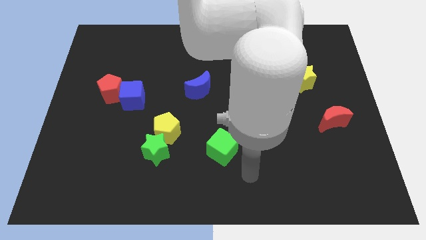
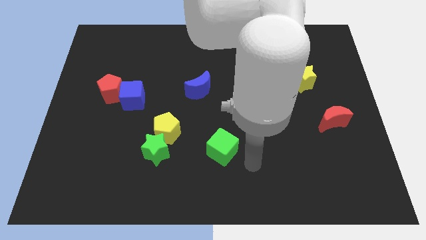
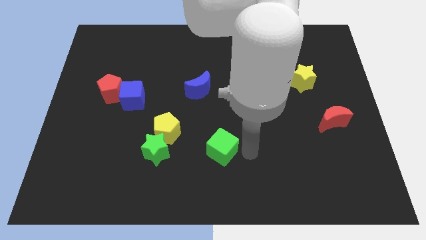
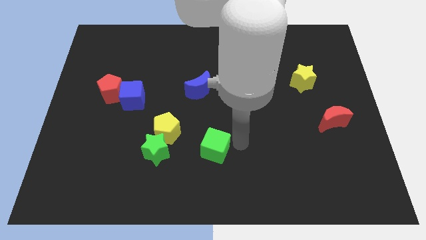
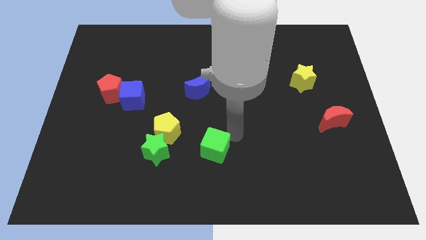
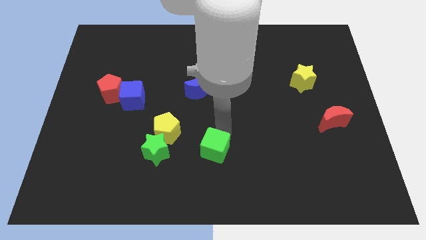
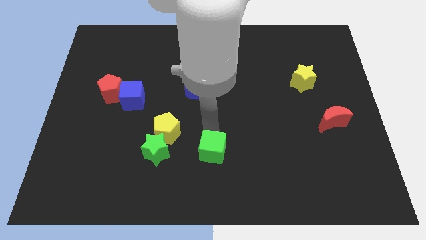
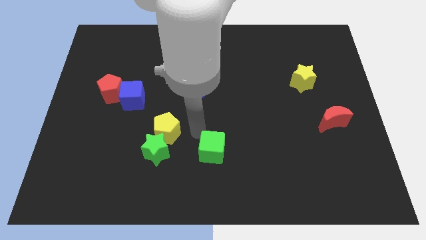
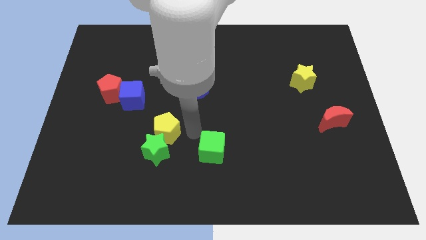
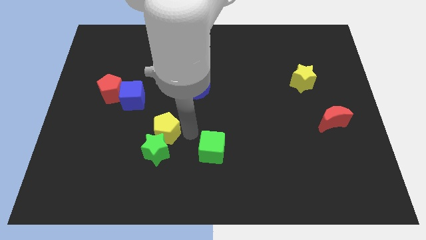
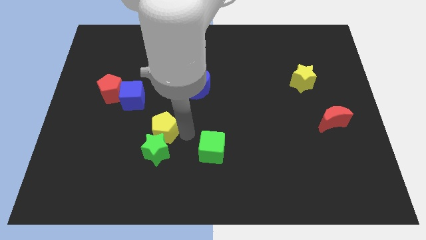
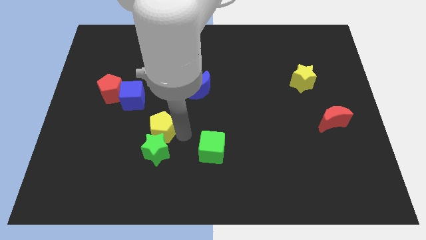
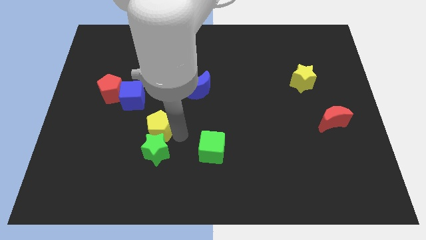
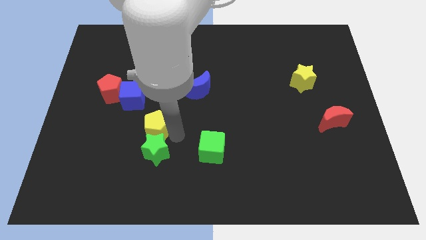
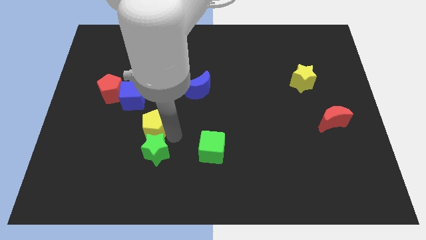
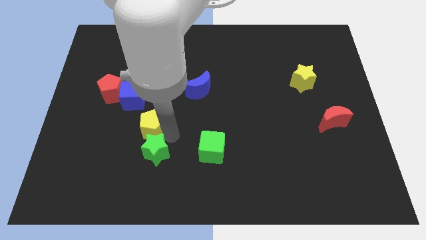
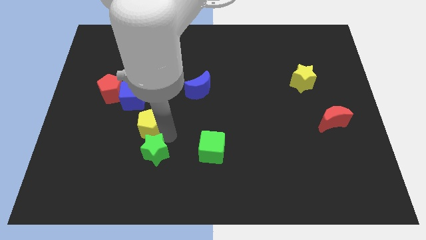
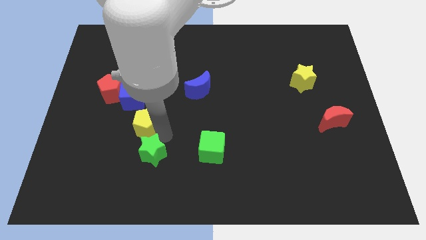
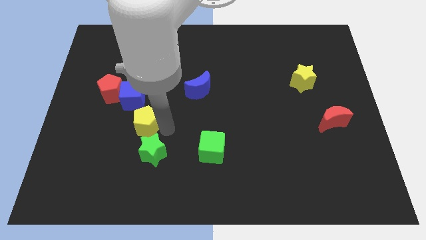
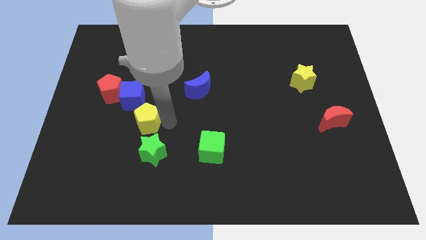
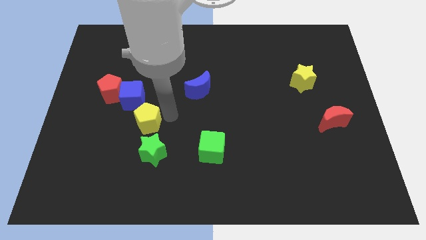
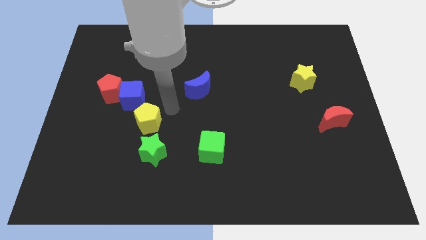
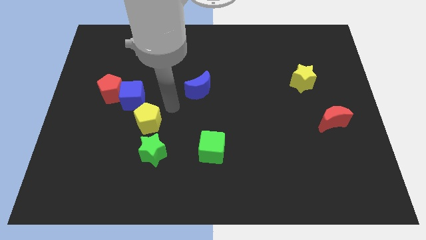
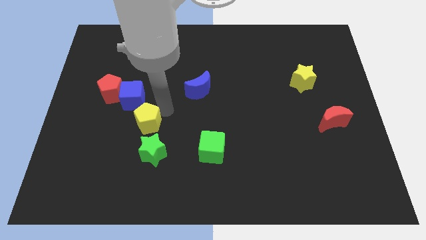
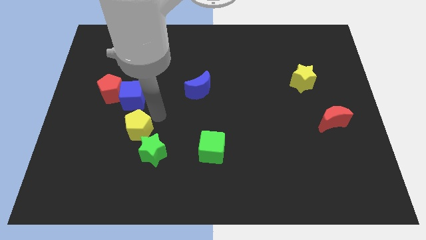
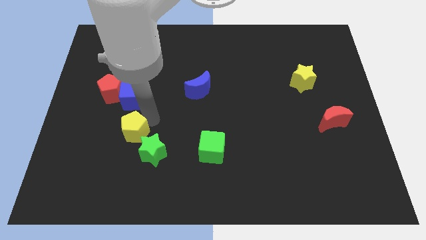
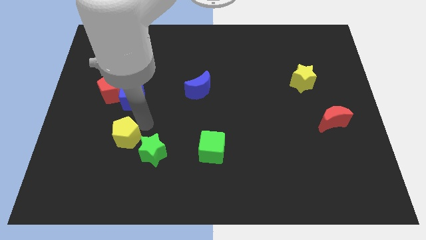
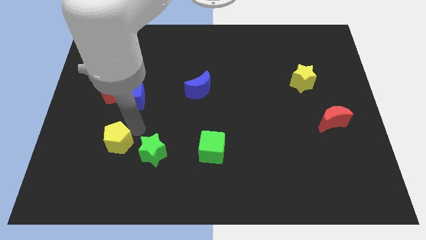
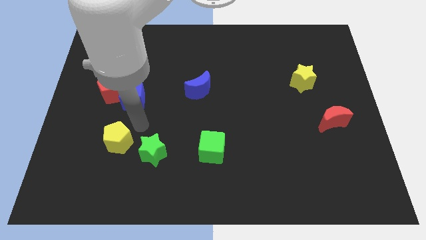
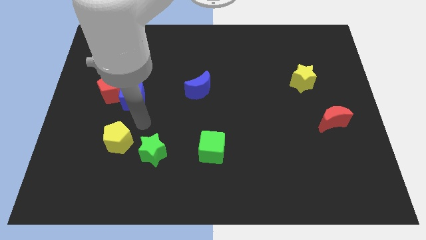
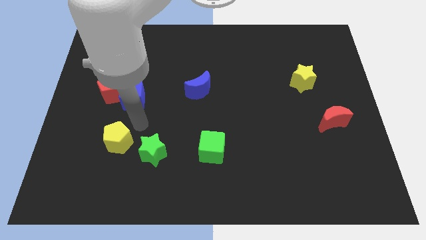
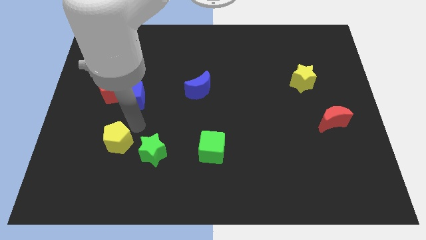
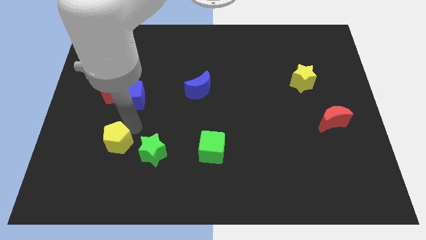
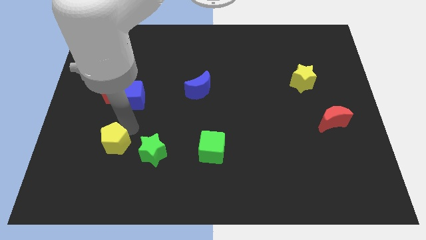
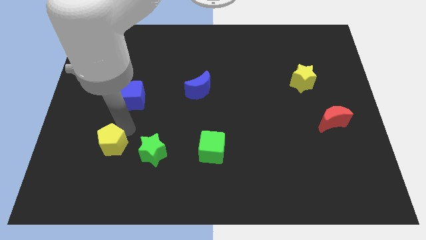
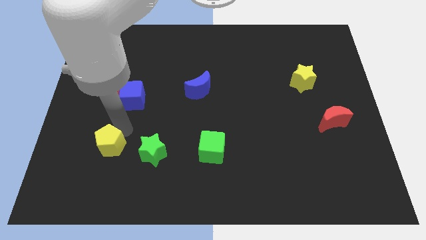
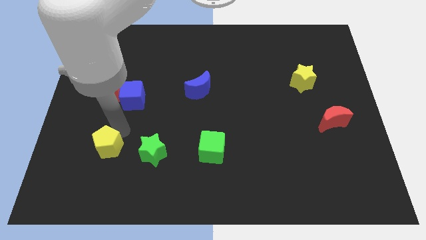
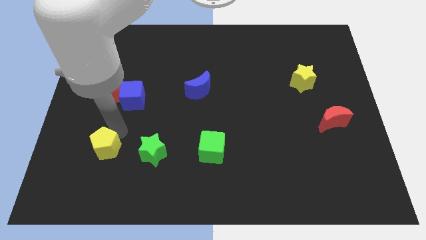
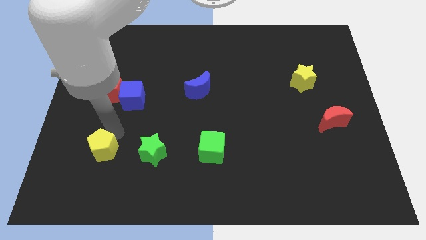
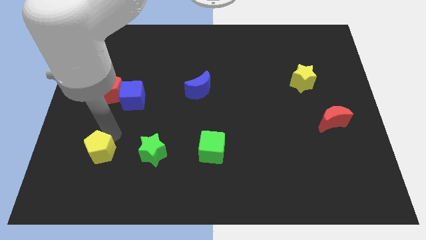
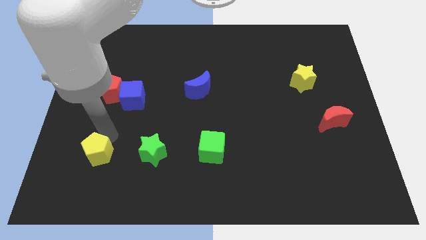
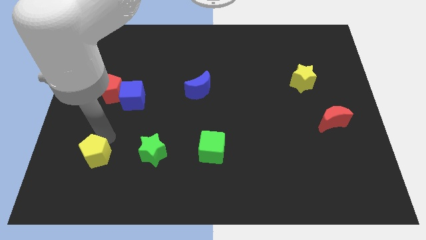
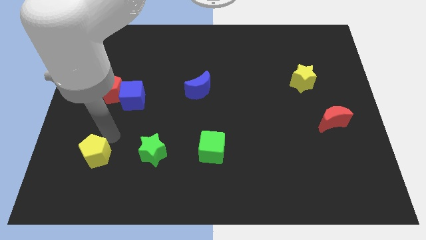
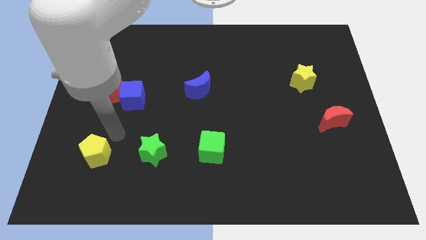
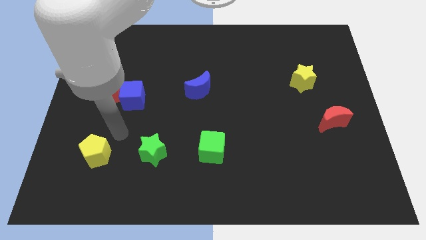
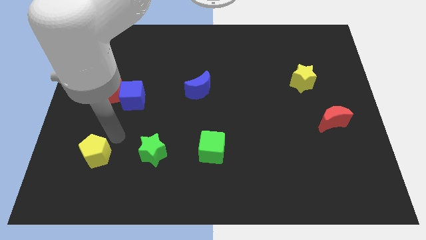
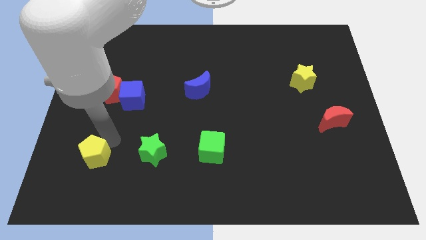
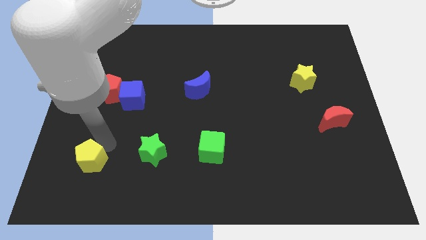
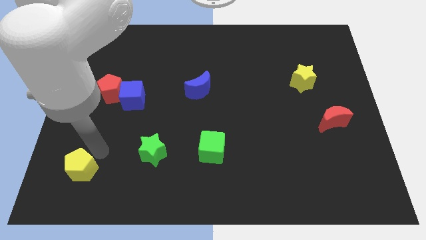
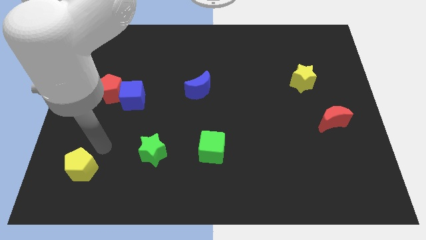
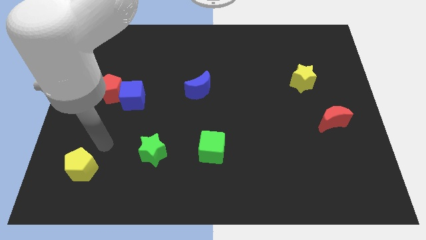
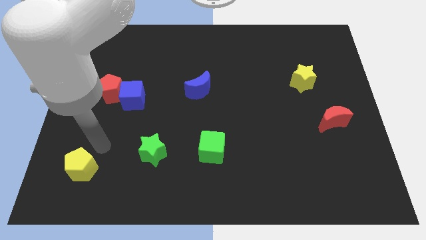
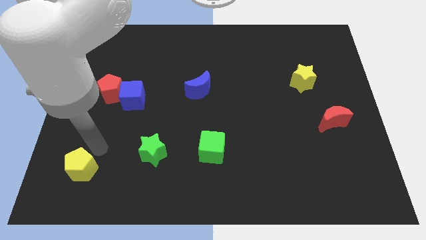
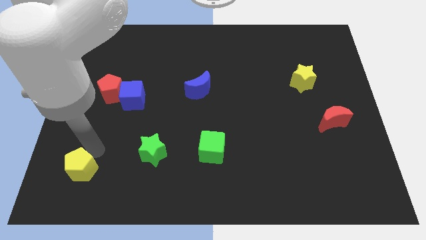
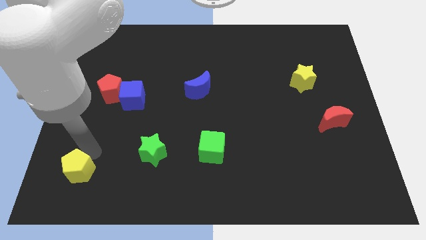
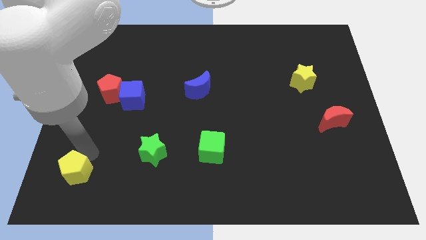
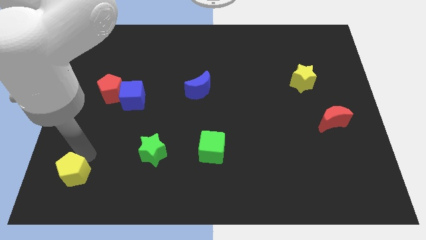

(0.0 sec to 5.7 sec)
put the yellow pentagon to the lower left corner

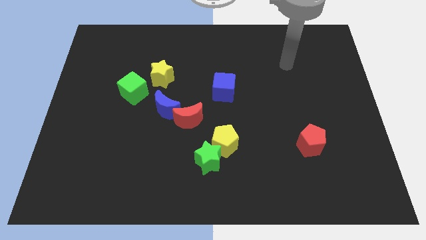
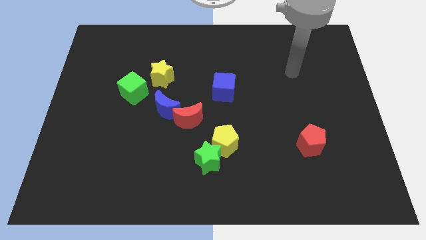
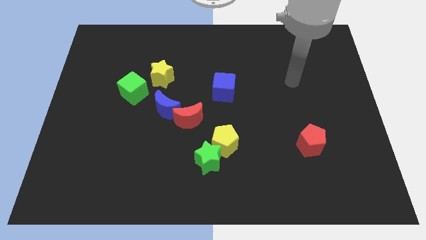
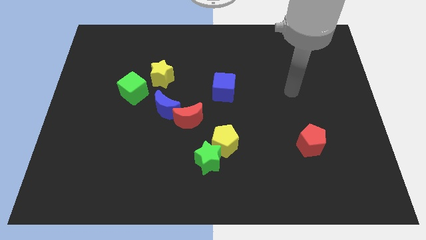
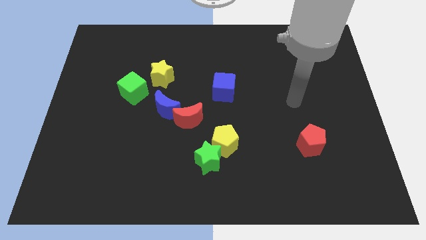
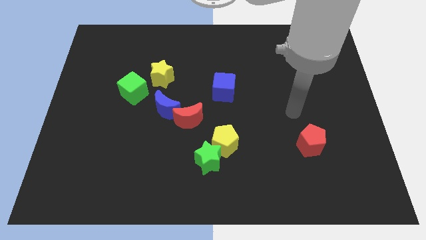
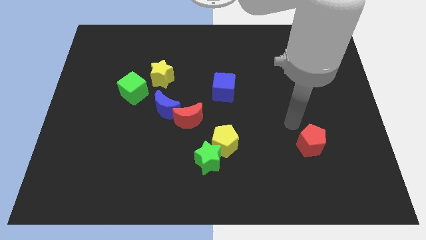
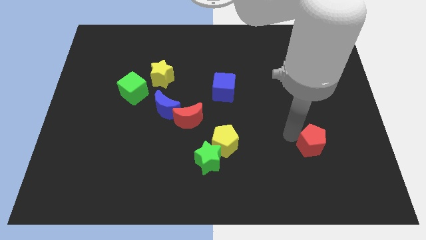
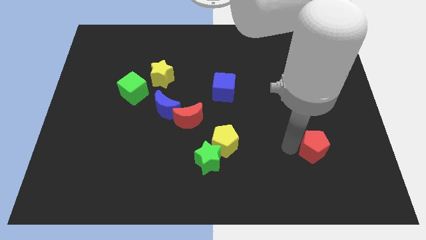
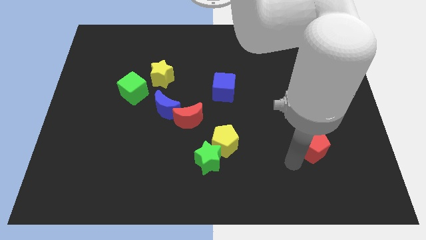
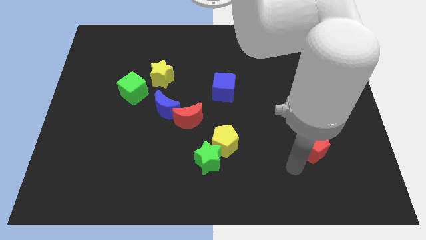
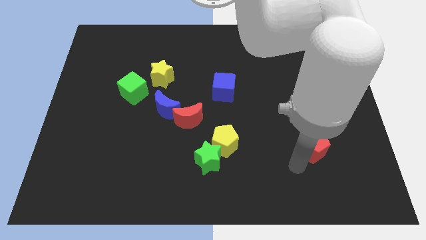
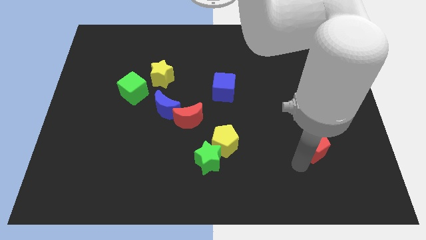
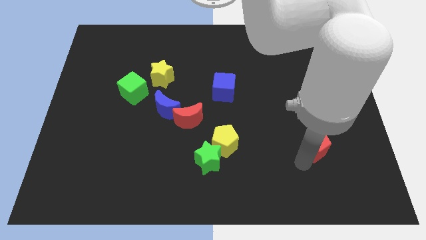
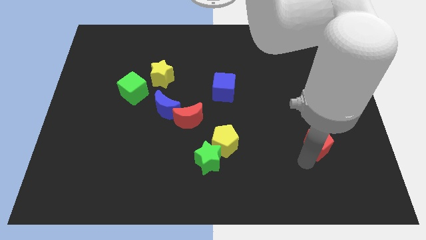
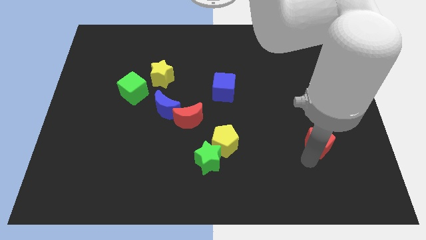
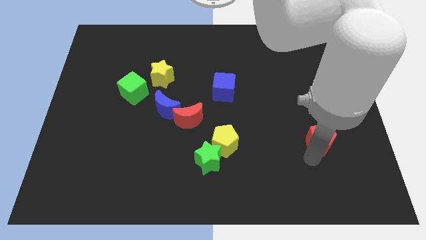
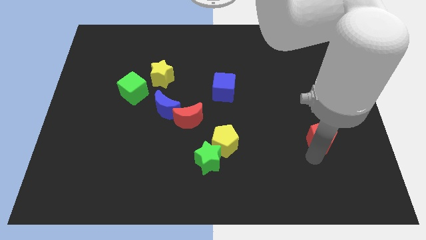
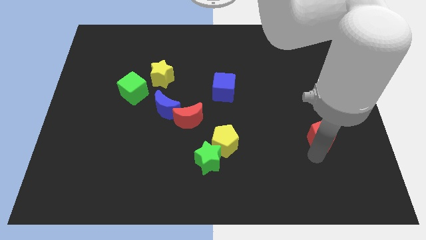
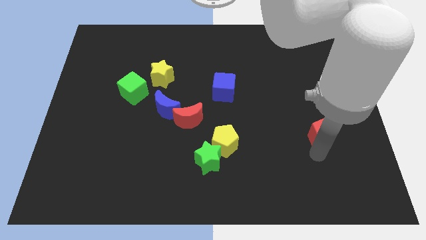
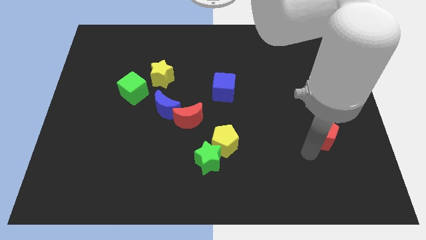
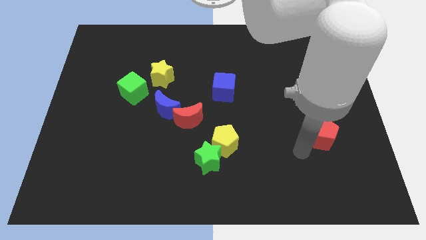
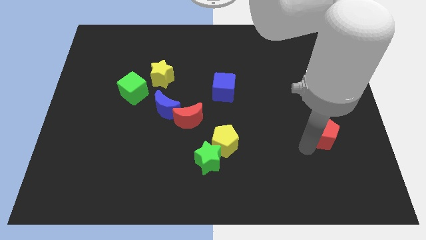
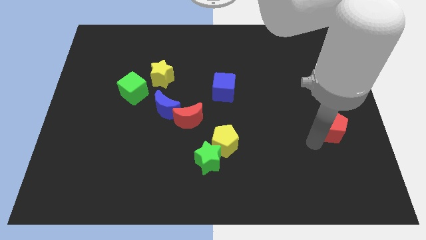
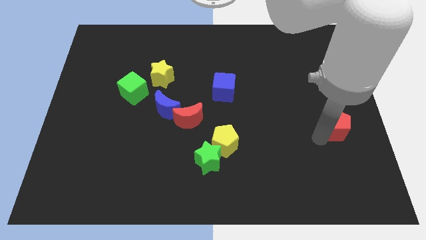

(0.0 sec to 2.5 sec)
push the red pentagon to the center right
